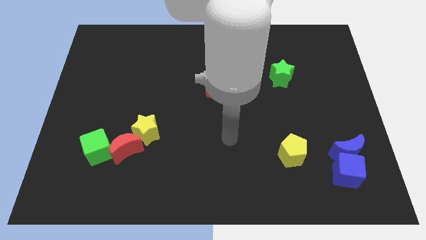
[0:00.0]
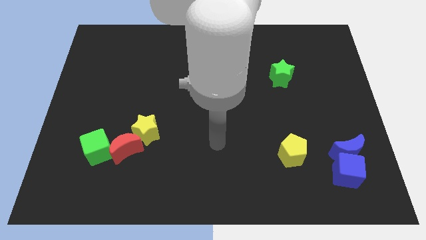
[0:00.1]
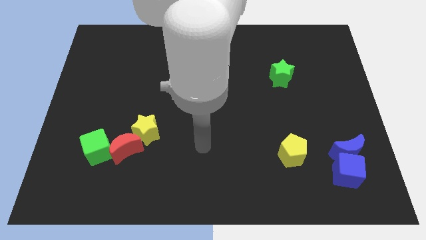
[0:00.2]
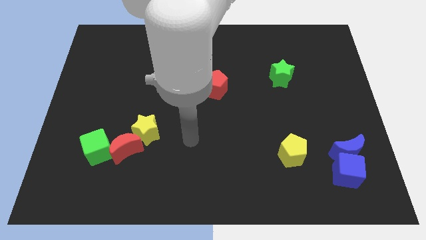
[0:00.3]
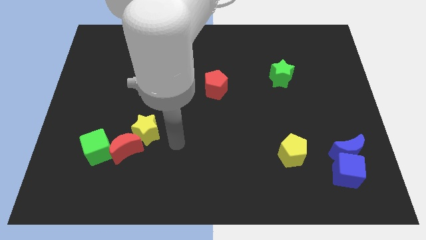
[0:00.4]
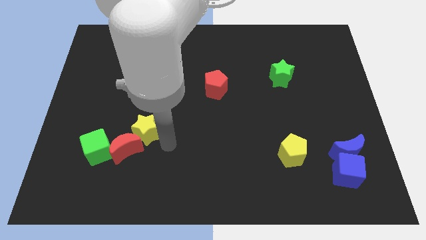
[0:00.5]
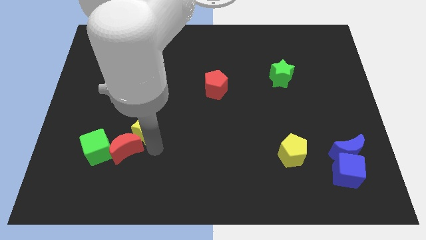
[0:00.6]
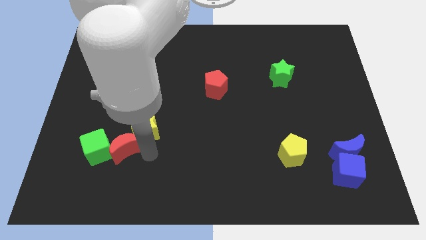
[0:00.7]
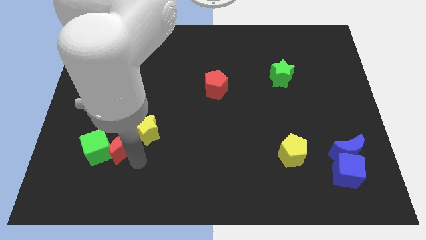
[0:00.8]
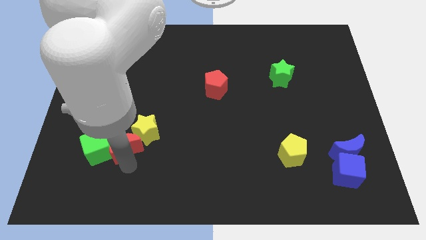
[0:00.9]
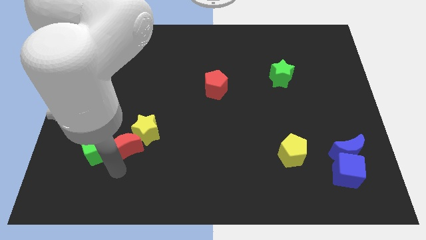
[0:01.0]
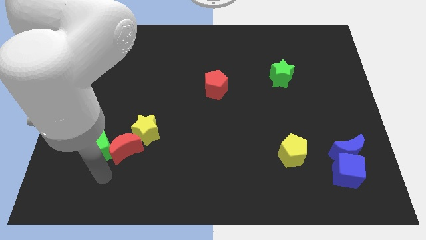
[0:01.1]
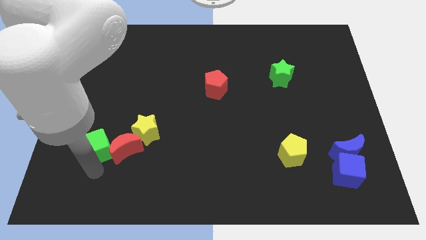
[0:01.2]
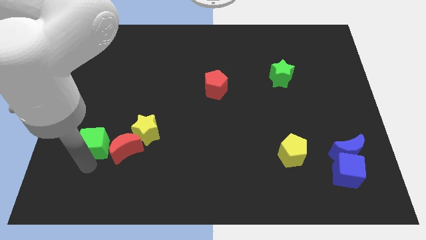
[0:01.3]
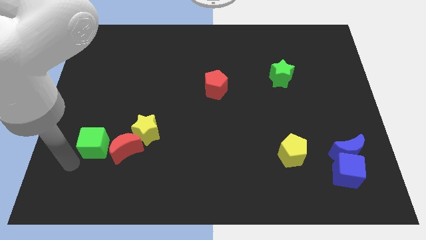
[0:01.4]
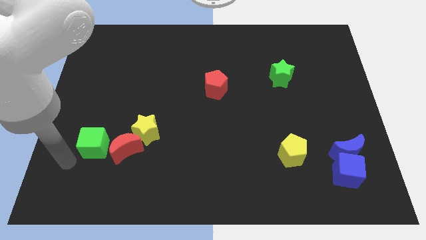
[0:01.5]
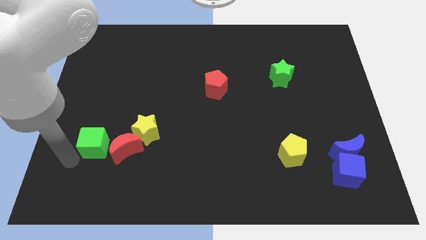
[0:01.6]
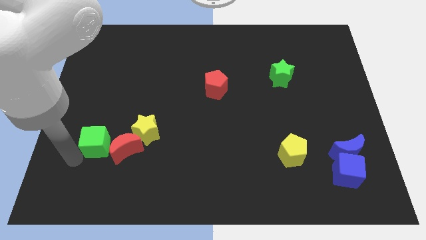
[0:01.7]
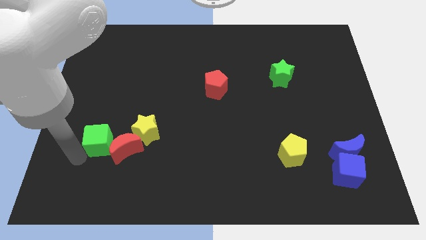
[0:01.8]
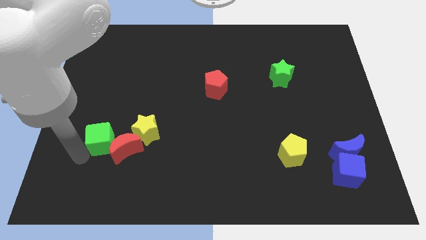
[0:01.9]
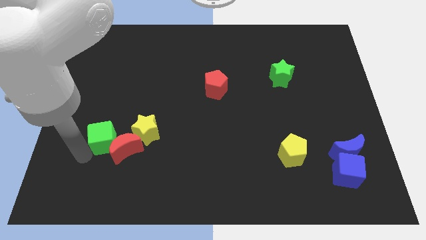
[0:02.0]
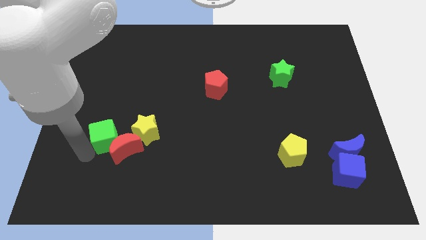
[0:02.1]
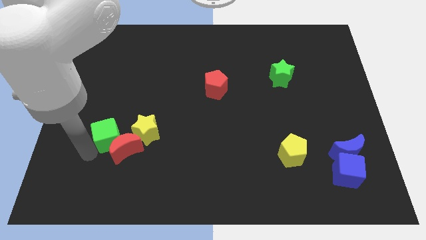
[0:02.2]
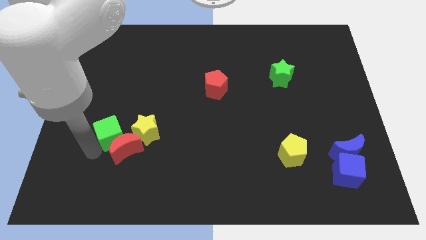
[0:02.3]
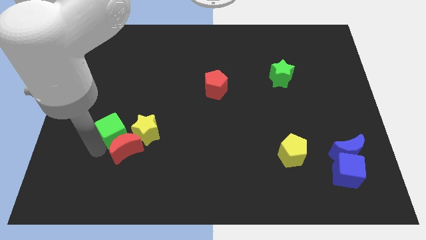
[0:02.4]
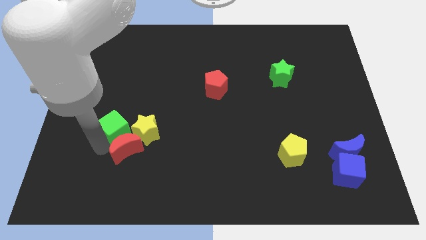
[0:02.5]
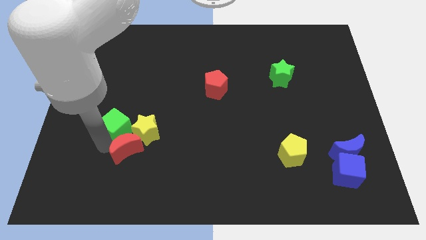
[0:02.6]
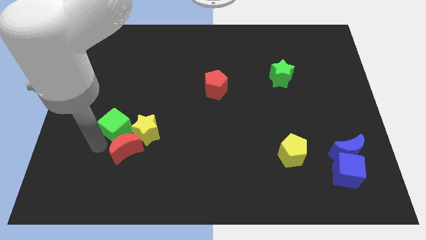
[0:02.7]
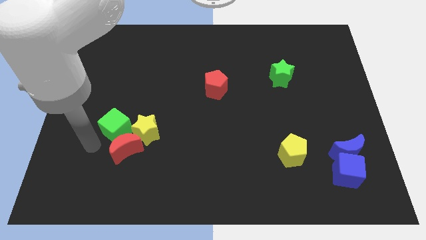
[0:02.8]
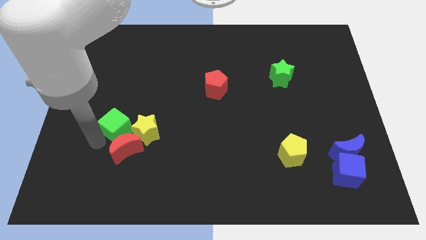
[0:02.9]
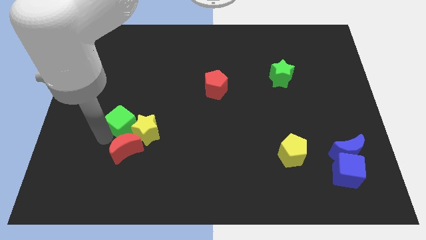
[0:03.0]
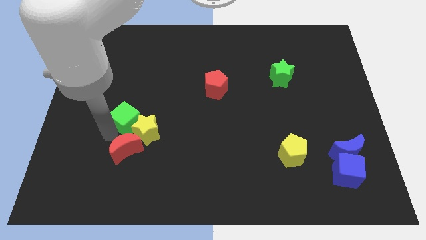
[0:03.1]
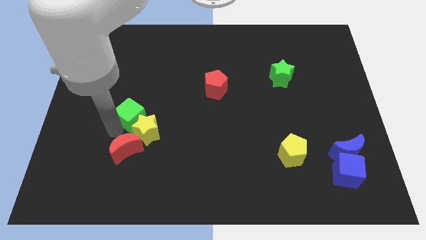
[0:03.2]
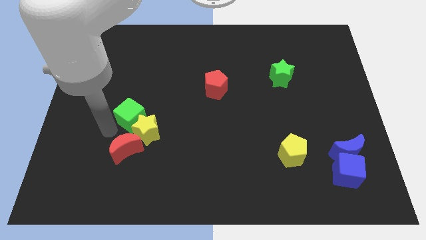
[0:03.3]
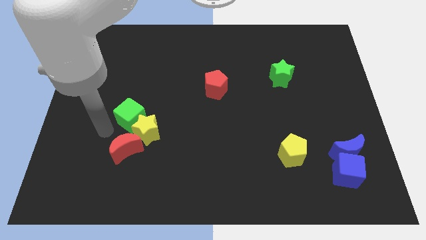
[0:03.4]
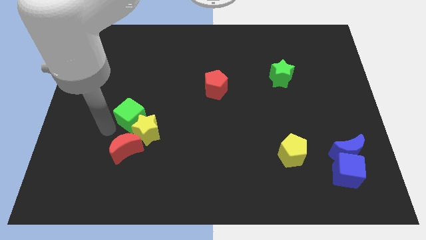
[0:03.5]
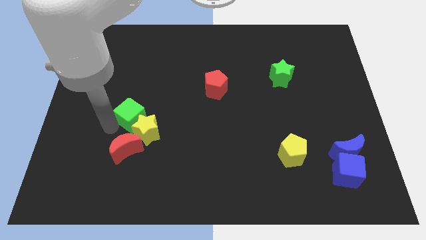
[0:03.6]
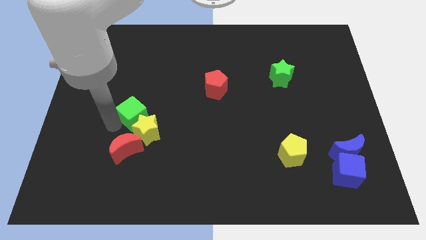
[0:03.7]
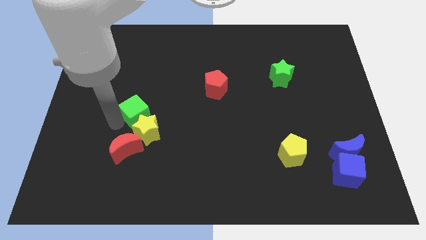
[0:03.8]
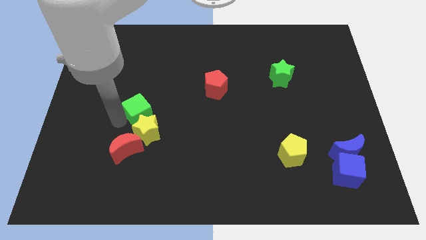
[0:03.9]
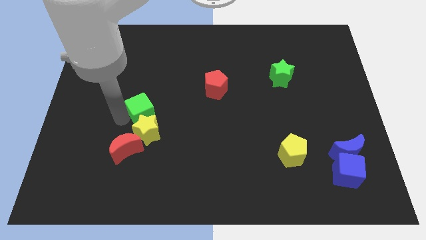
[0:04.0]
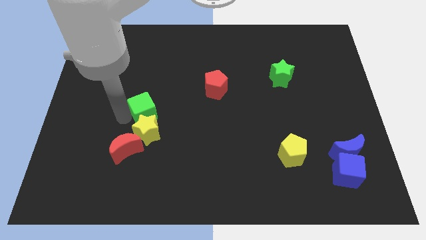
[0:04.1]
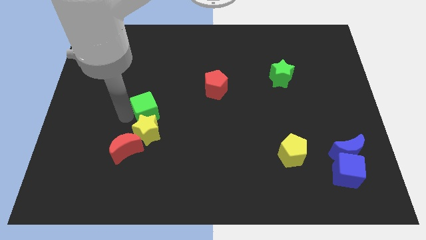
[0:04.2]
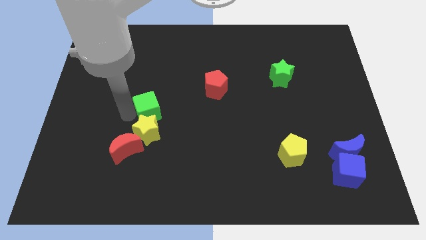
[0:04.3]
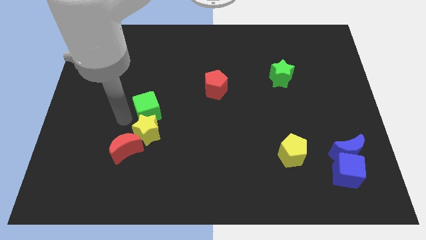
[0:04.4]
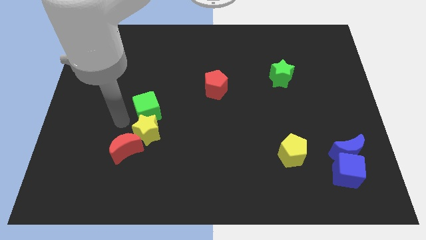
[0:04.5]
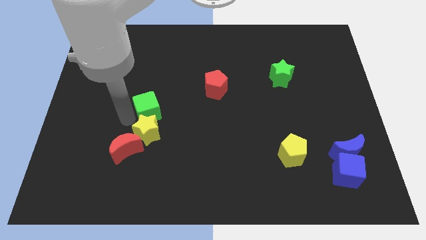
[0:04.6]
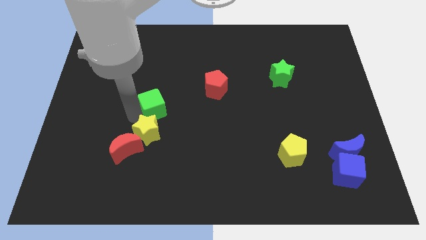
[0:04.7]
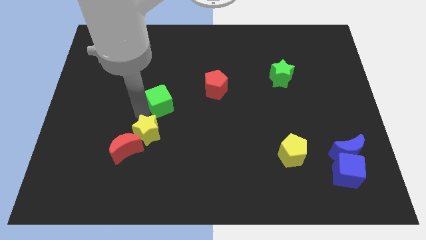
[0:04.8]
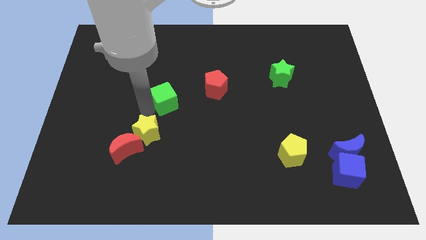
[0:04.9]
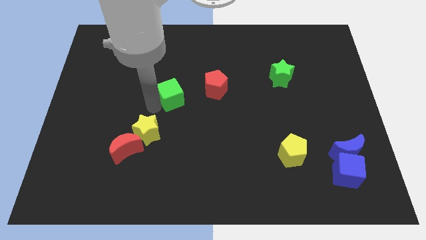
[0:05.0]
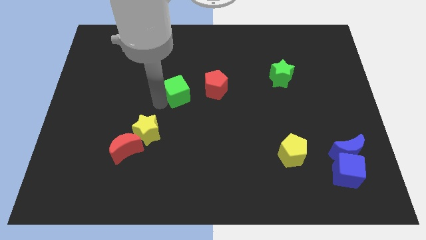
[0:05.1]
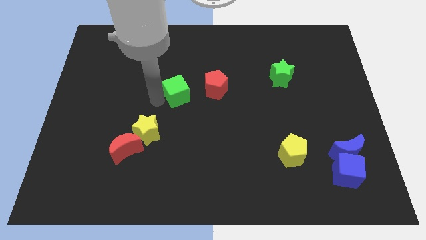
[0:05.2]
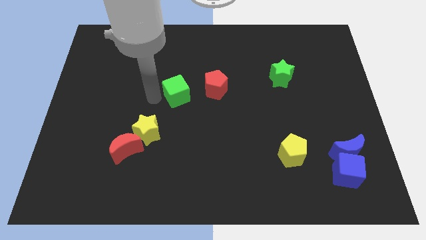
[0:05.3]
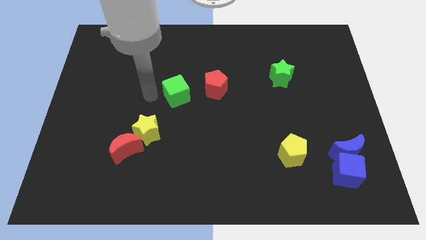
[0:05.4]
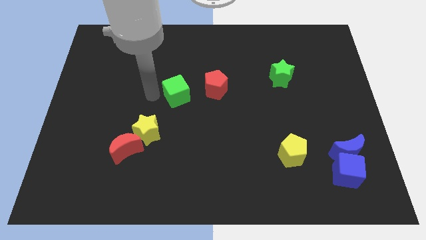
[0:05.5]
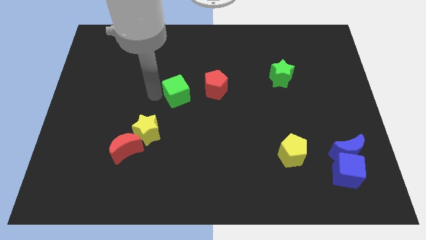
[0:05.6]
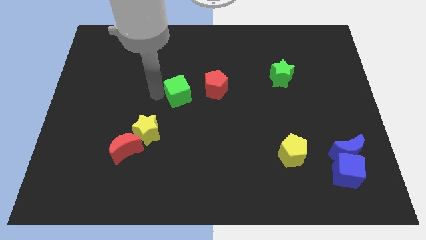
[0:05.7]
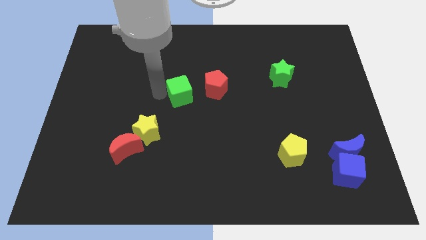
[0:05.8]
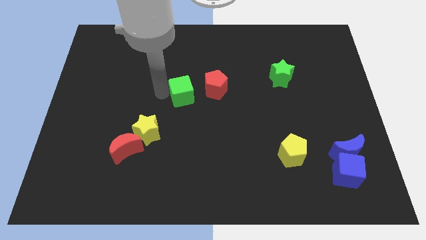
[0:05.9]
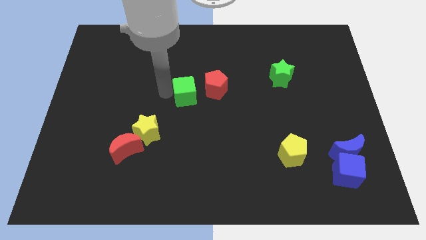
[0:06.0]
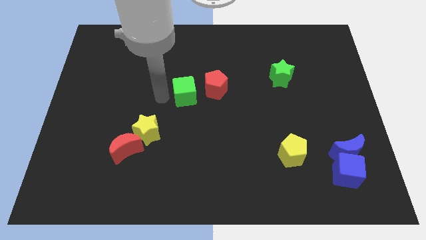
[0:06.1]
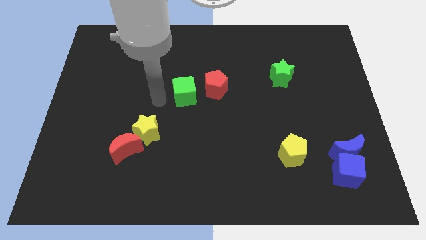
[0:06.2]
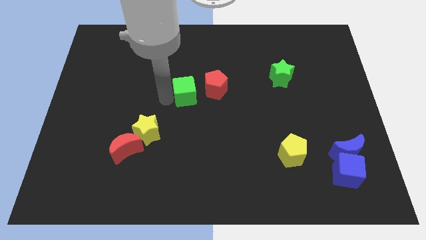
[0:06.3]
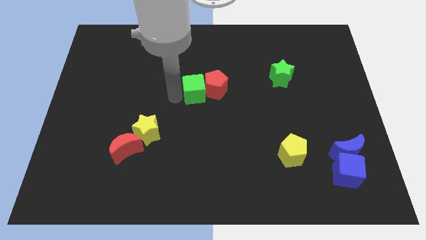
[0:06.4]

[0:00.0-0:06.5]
move the green cube next to the red pentagon
